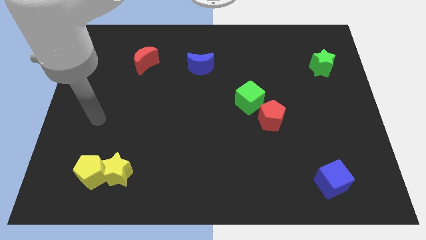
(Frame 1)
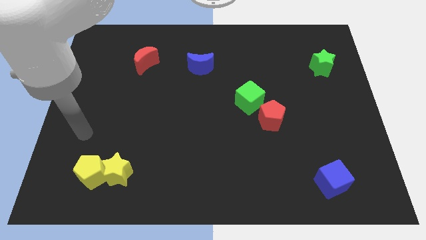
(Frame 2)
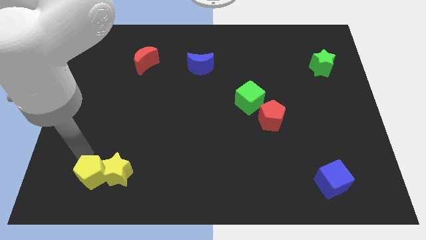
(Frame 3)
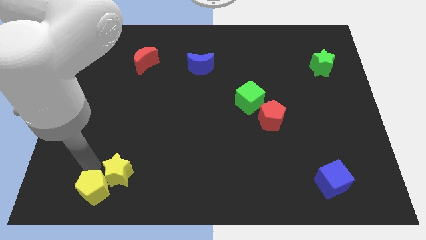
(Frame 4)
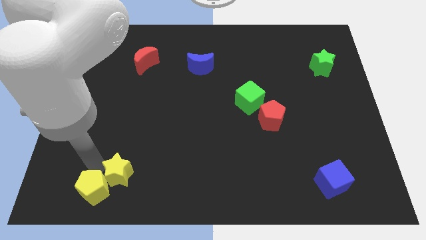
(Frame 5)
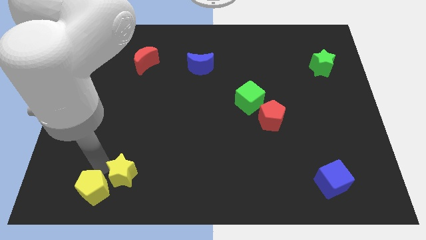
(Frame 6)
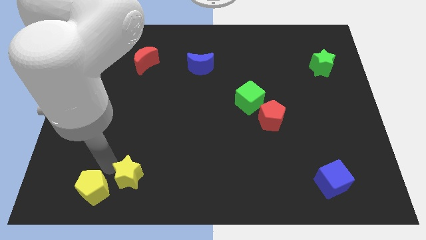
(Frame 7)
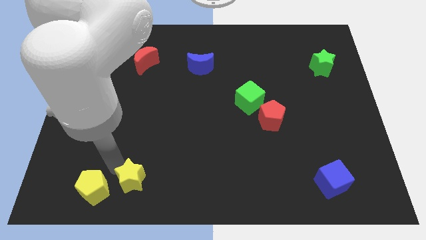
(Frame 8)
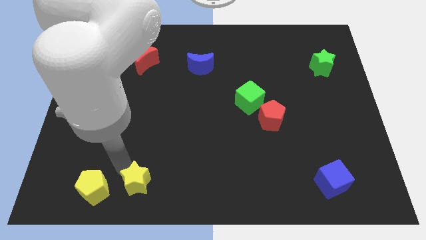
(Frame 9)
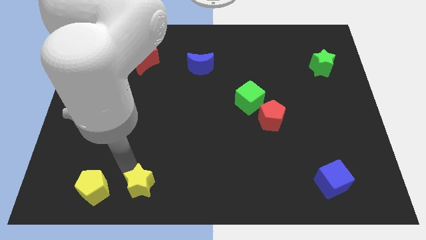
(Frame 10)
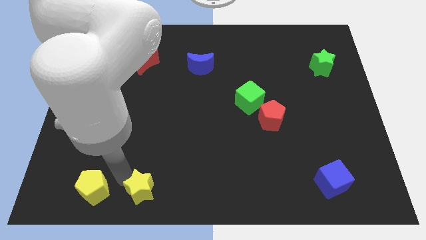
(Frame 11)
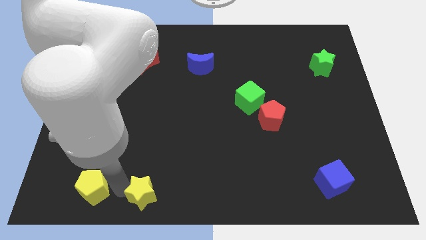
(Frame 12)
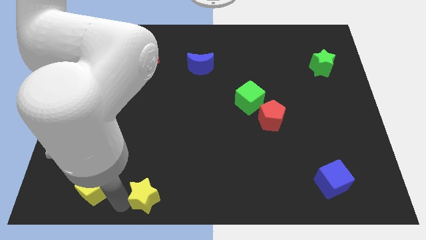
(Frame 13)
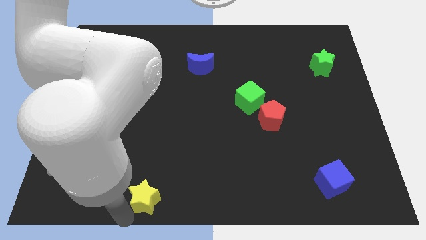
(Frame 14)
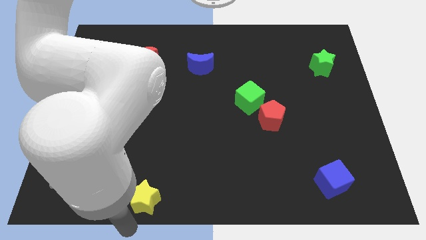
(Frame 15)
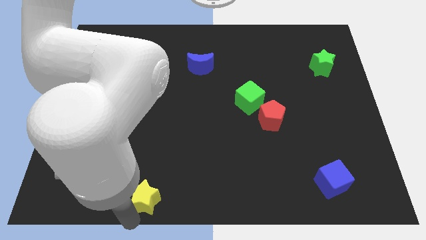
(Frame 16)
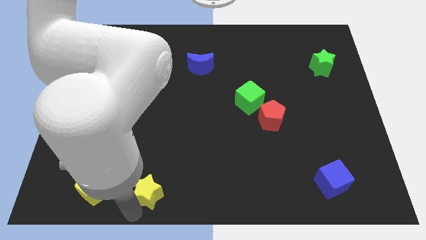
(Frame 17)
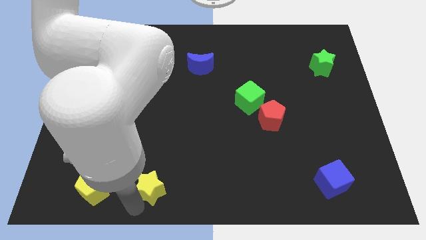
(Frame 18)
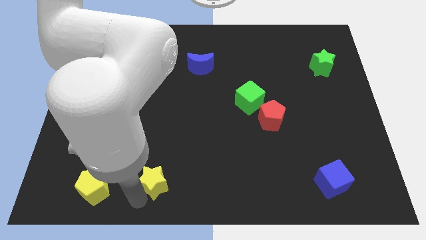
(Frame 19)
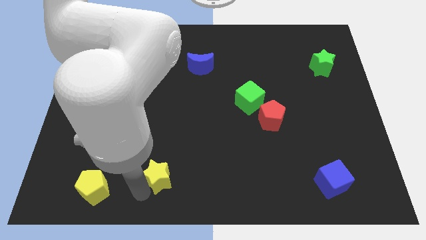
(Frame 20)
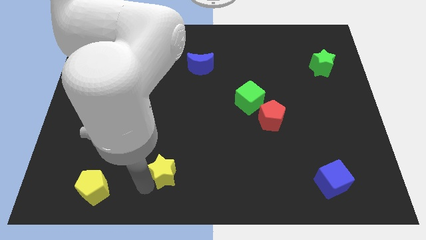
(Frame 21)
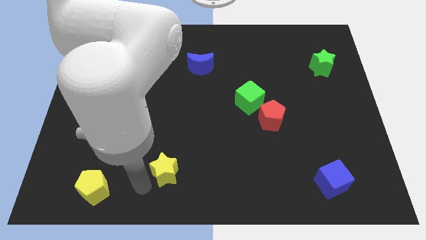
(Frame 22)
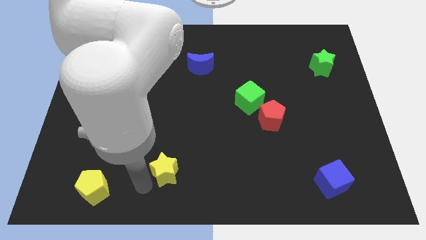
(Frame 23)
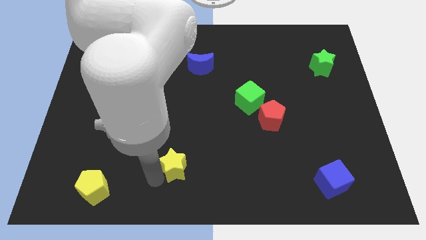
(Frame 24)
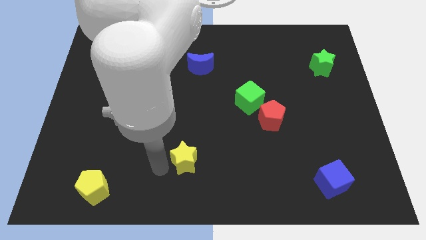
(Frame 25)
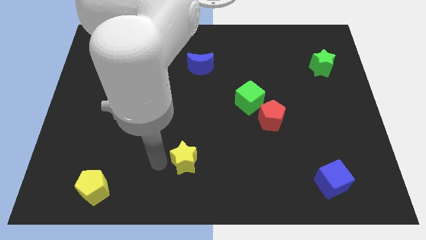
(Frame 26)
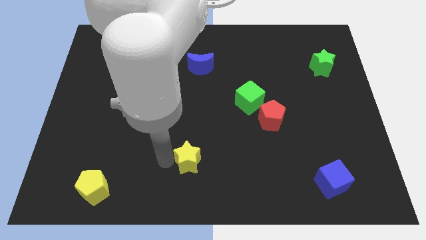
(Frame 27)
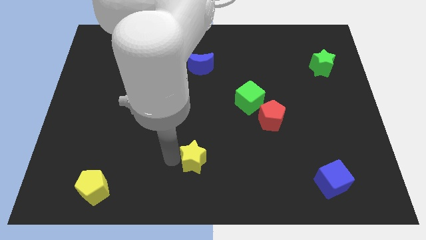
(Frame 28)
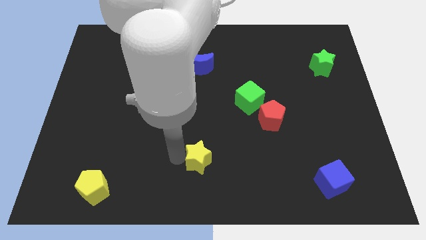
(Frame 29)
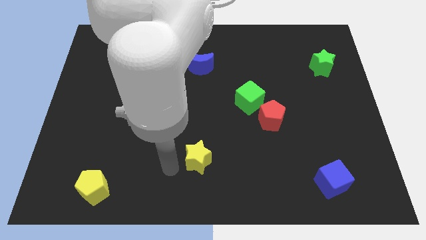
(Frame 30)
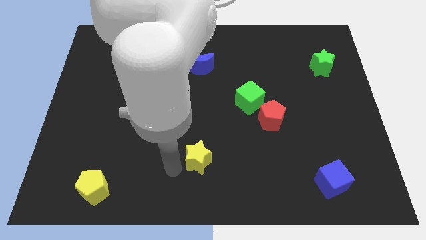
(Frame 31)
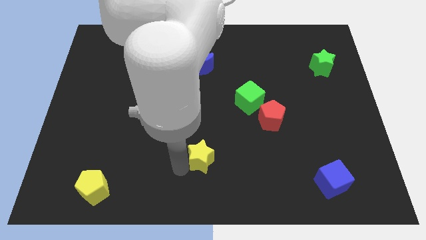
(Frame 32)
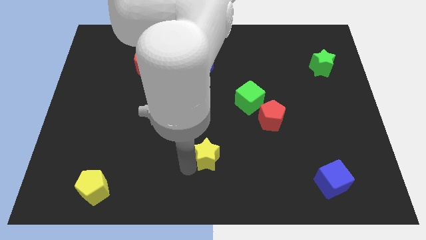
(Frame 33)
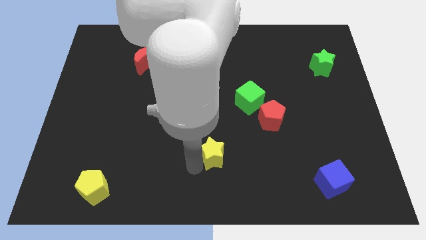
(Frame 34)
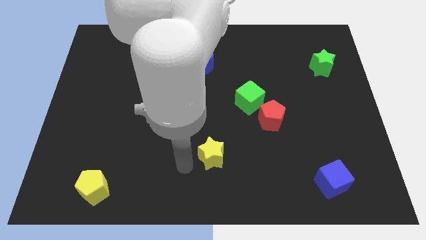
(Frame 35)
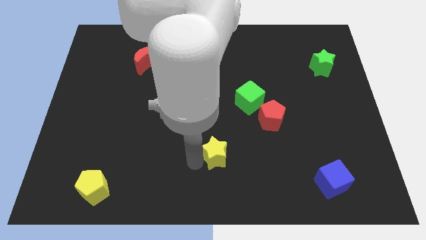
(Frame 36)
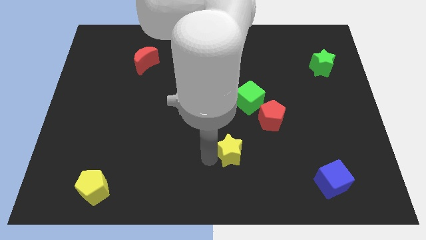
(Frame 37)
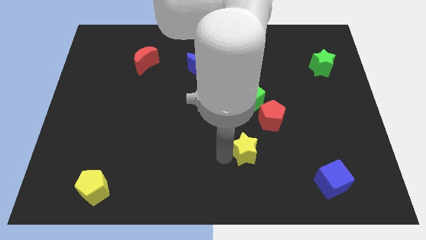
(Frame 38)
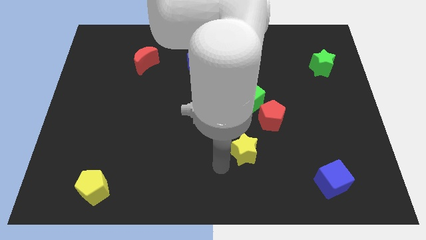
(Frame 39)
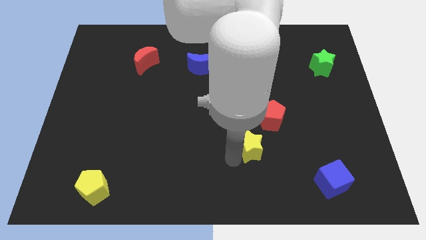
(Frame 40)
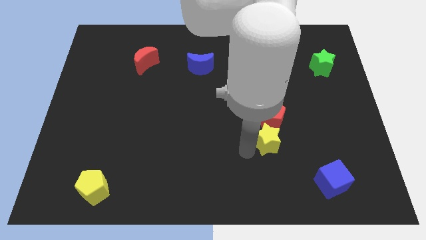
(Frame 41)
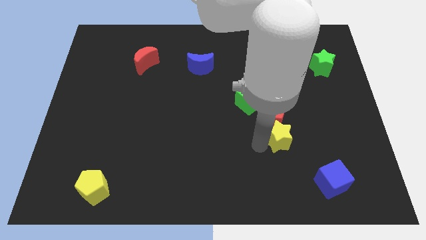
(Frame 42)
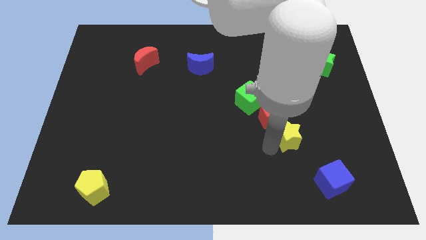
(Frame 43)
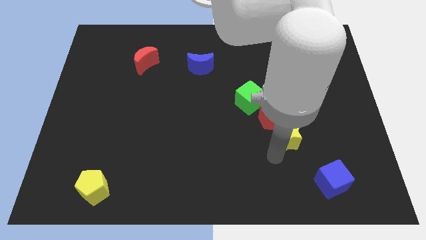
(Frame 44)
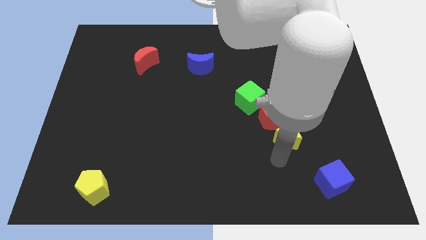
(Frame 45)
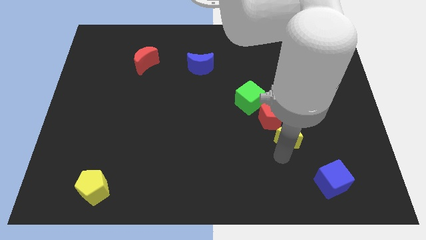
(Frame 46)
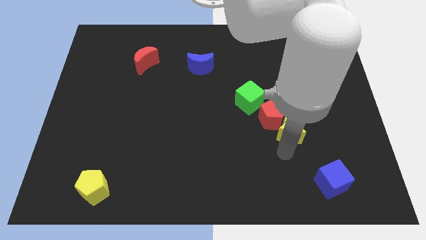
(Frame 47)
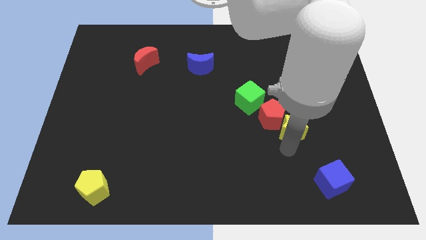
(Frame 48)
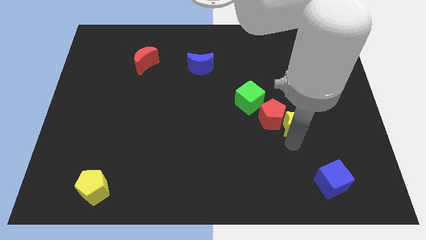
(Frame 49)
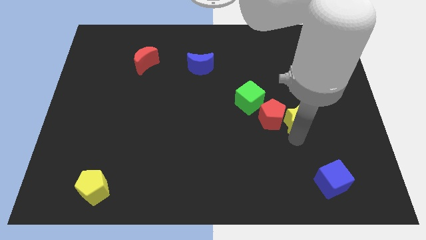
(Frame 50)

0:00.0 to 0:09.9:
move the yellow star to the top right side of the red pentagon

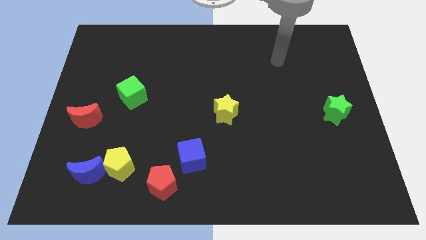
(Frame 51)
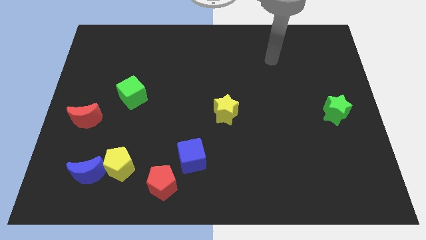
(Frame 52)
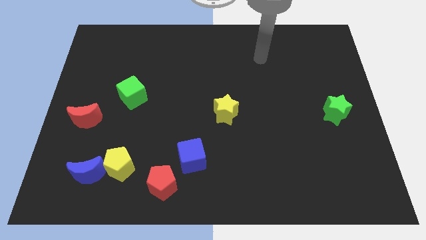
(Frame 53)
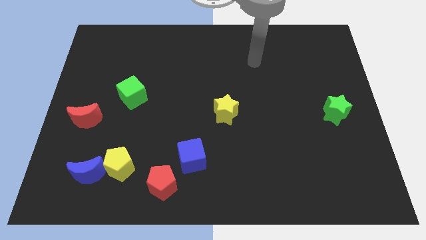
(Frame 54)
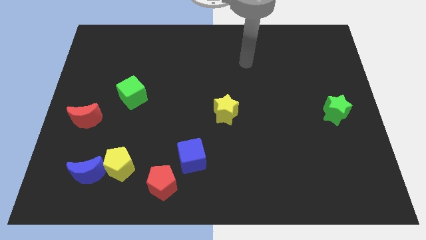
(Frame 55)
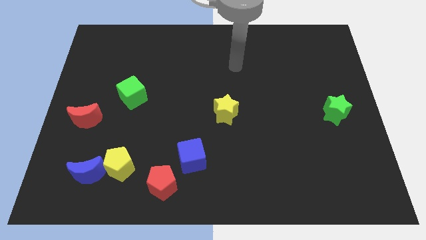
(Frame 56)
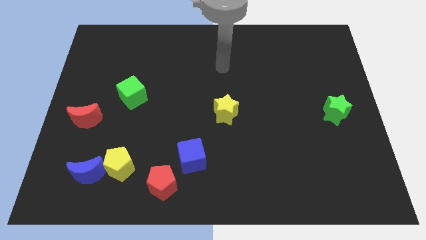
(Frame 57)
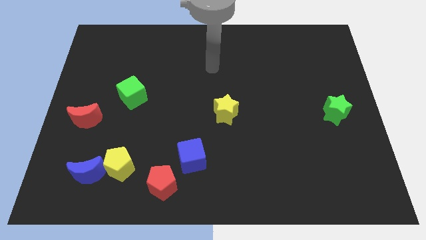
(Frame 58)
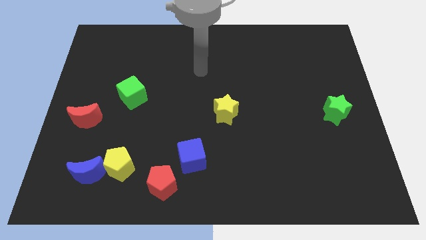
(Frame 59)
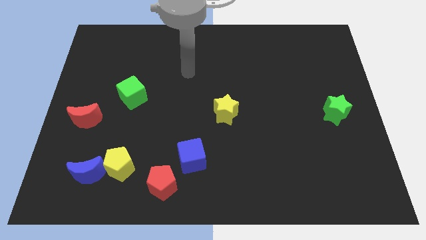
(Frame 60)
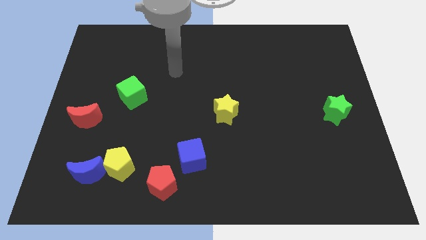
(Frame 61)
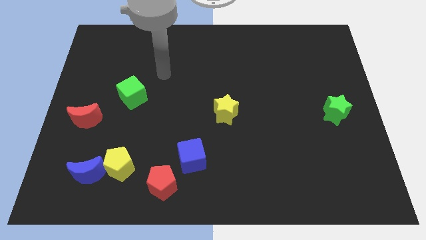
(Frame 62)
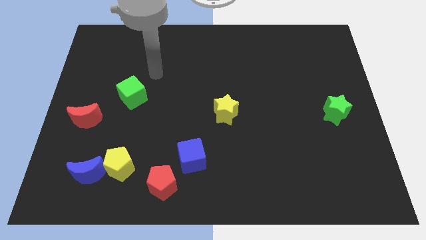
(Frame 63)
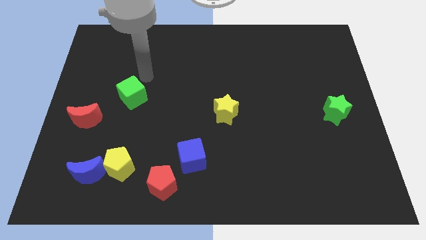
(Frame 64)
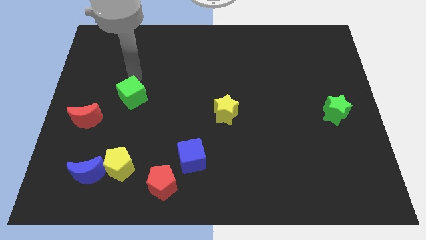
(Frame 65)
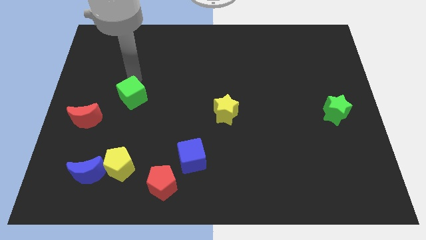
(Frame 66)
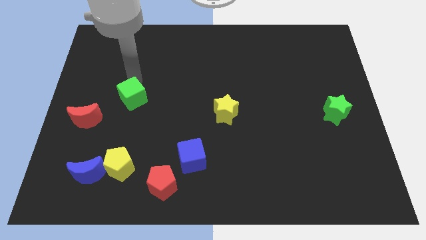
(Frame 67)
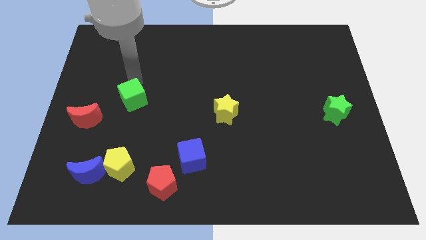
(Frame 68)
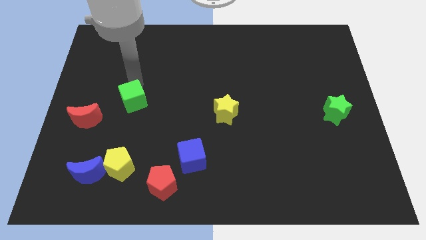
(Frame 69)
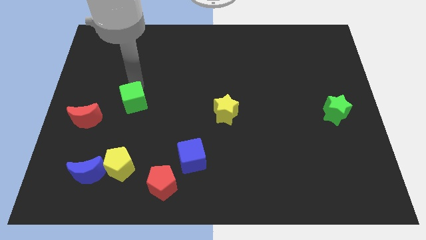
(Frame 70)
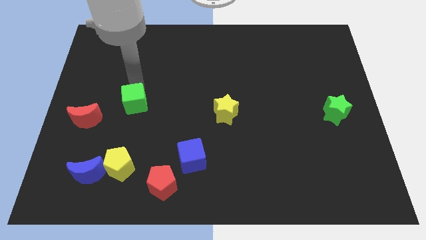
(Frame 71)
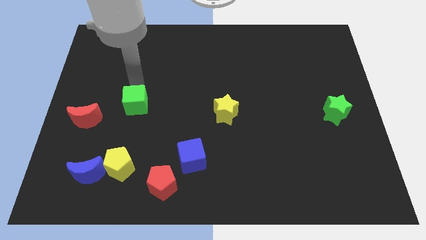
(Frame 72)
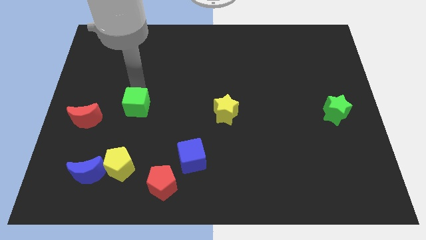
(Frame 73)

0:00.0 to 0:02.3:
put the green cube to the top side of the yellow pentagon
